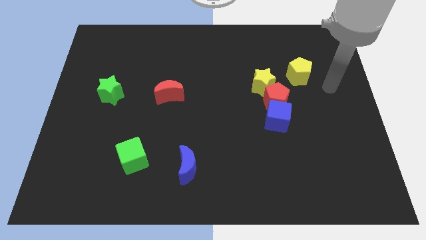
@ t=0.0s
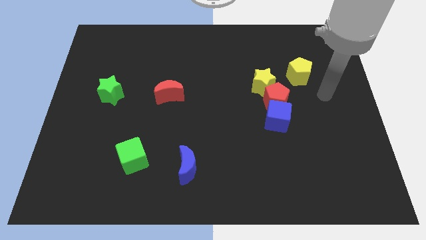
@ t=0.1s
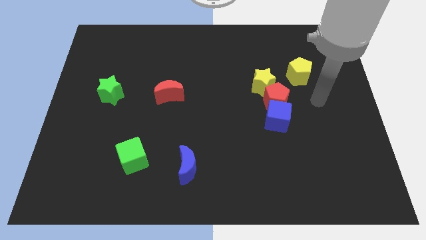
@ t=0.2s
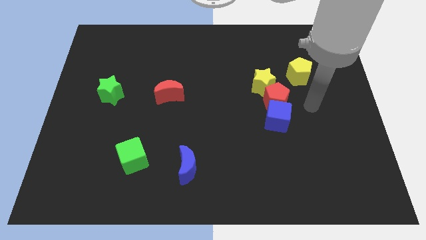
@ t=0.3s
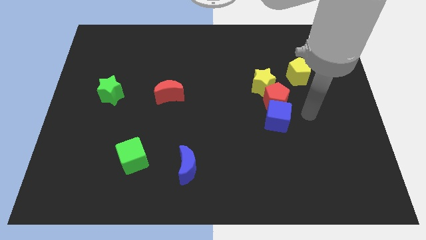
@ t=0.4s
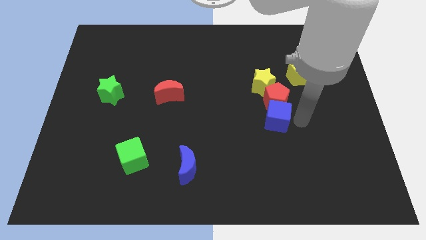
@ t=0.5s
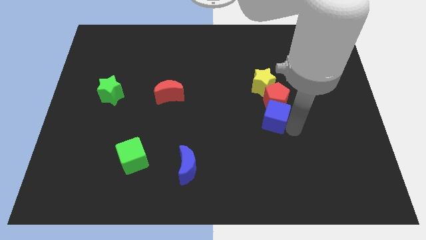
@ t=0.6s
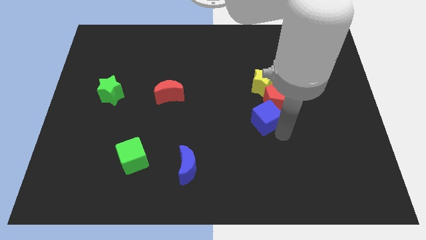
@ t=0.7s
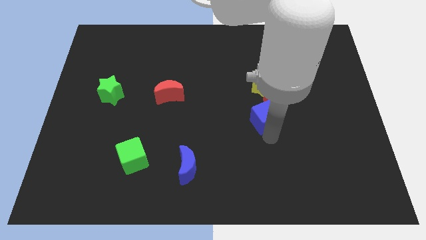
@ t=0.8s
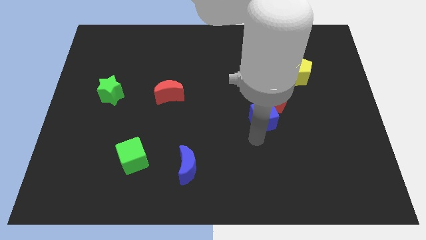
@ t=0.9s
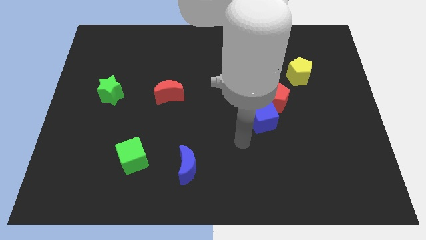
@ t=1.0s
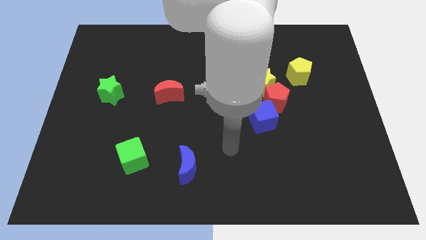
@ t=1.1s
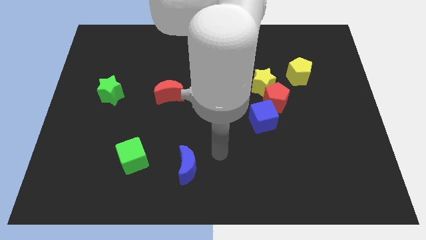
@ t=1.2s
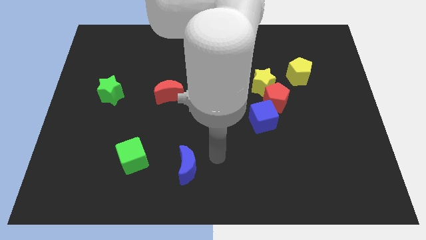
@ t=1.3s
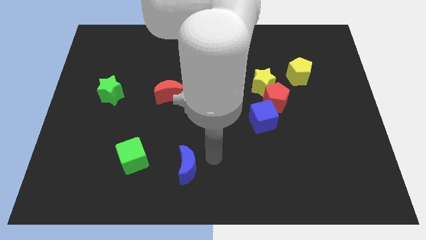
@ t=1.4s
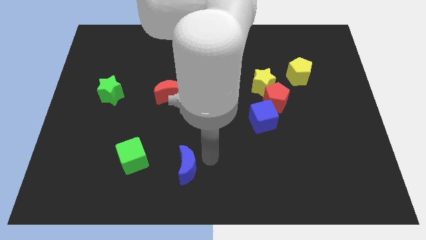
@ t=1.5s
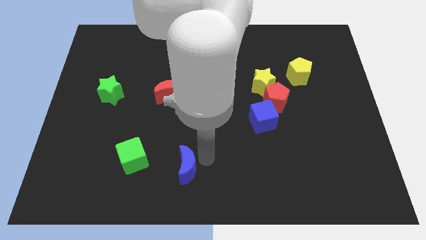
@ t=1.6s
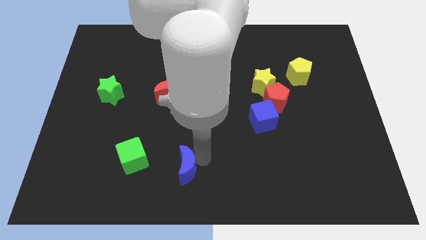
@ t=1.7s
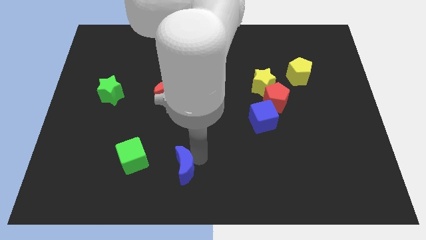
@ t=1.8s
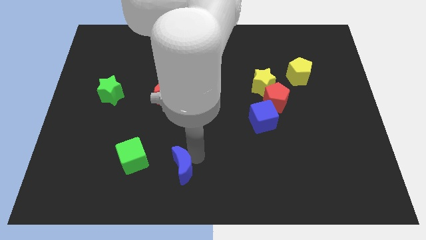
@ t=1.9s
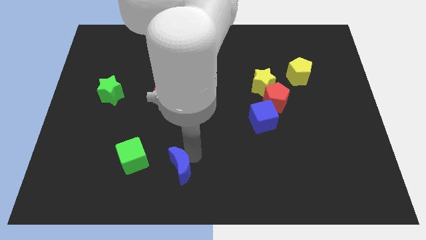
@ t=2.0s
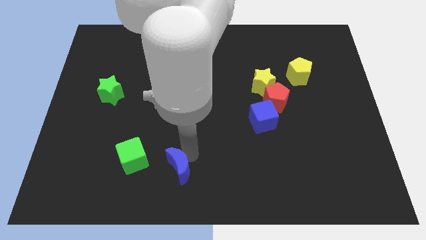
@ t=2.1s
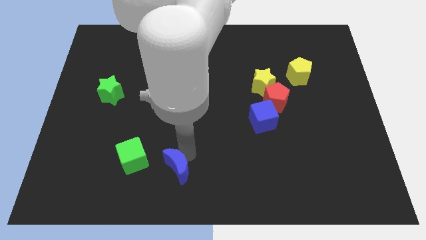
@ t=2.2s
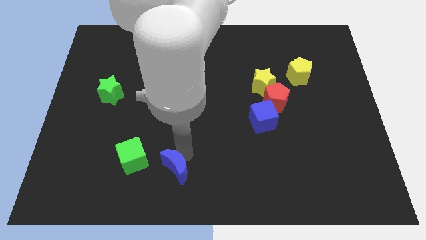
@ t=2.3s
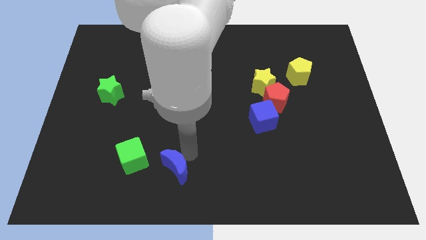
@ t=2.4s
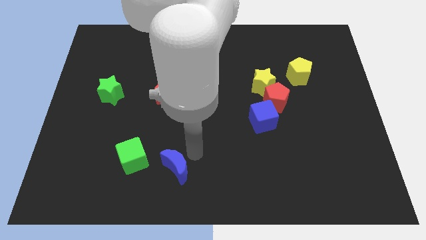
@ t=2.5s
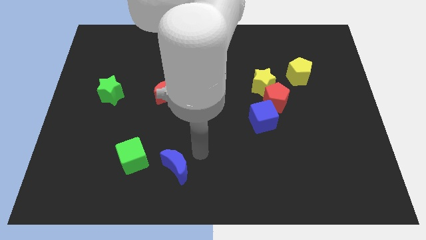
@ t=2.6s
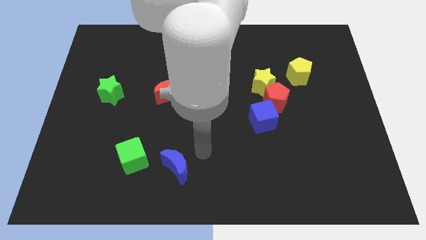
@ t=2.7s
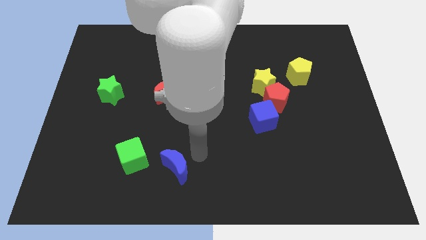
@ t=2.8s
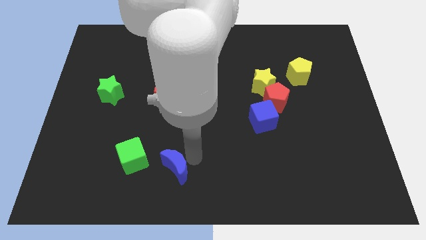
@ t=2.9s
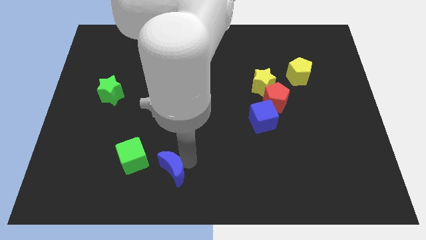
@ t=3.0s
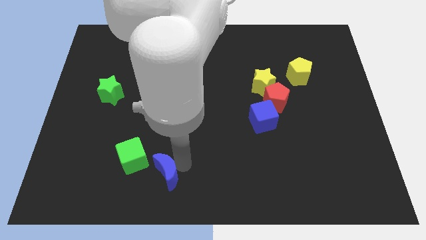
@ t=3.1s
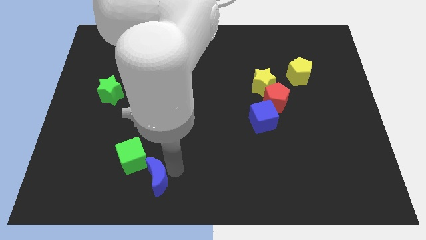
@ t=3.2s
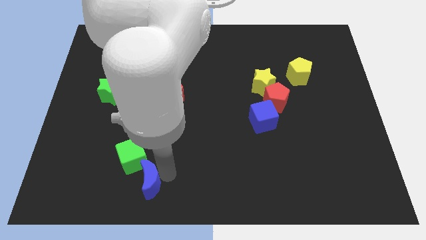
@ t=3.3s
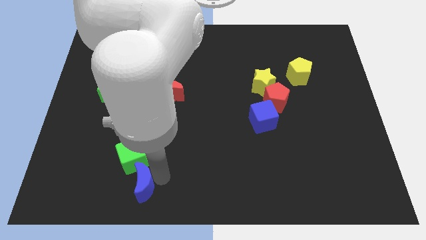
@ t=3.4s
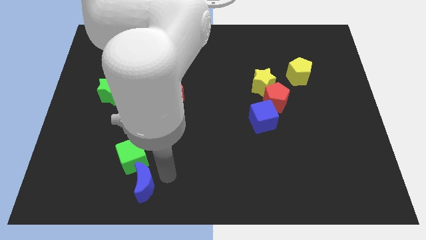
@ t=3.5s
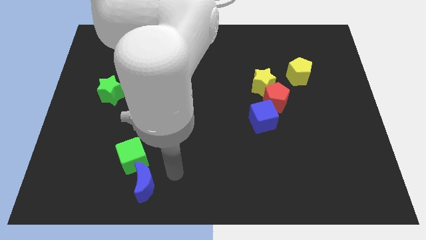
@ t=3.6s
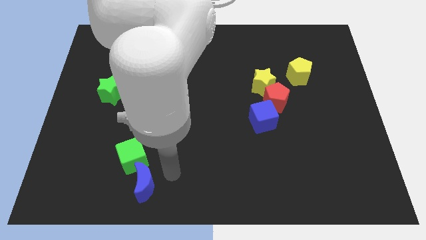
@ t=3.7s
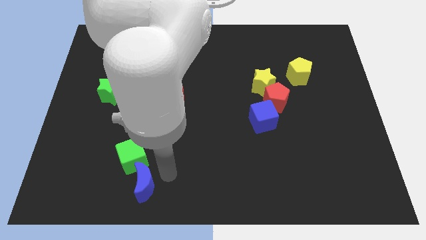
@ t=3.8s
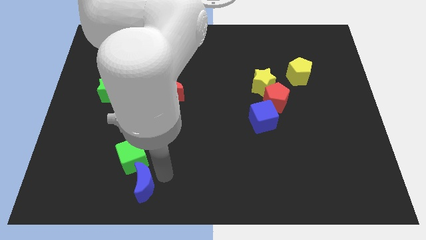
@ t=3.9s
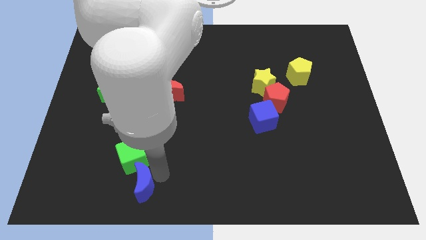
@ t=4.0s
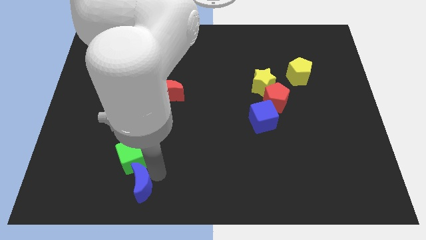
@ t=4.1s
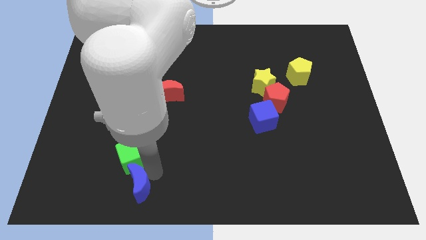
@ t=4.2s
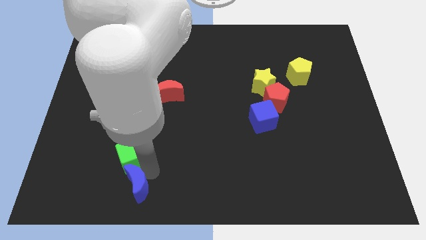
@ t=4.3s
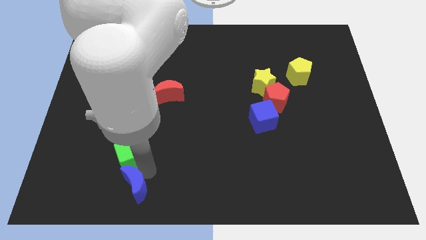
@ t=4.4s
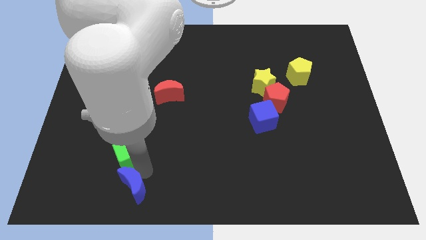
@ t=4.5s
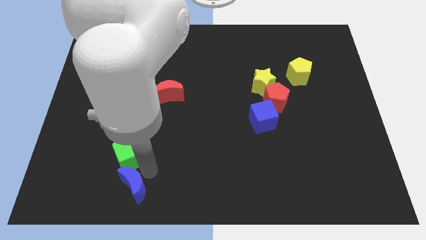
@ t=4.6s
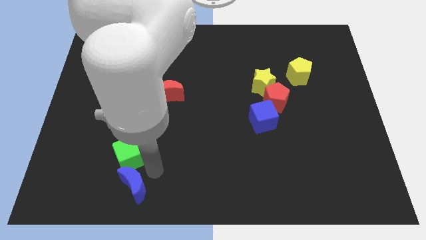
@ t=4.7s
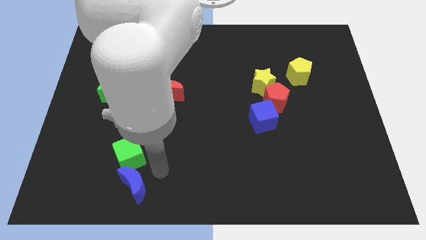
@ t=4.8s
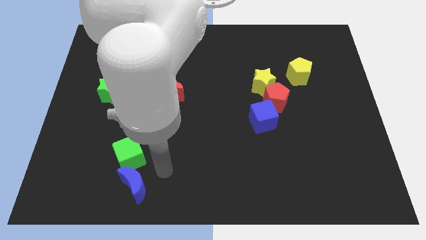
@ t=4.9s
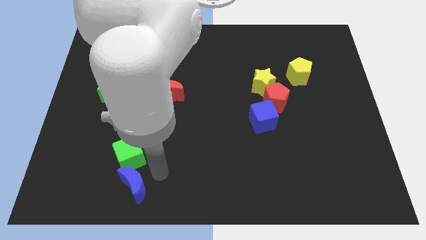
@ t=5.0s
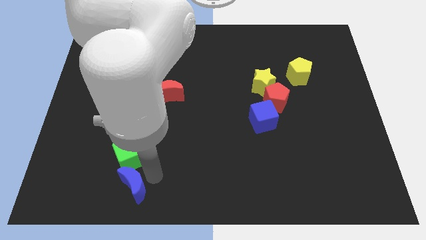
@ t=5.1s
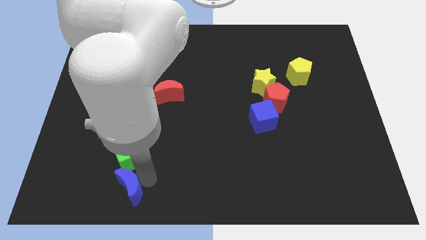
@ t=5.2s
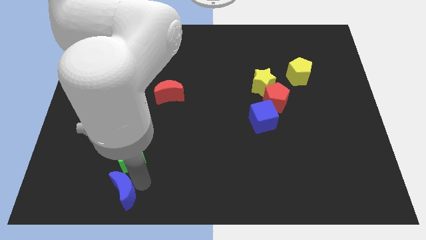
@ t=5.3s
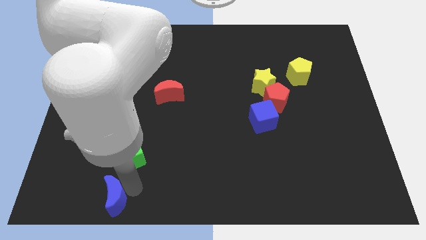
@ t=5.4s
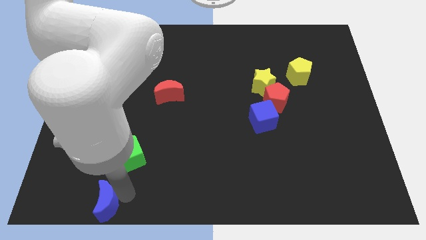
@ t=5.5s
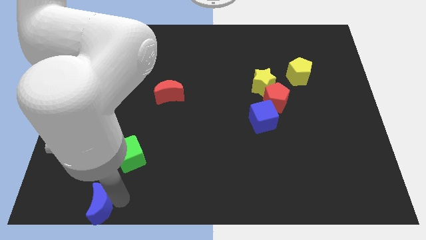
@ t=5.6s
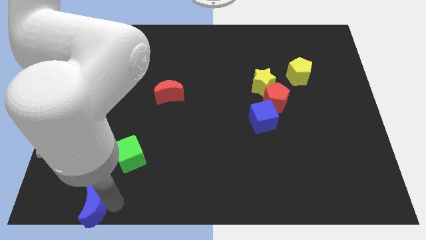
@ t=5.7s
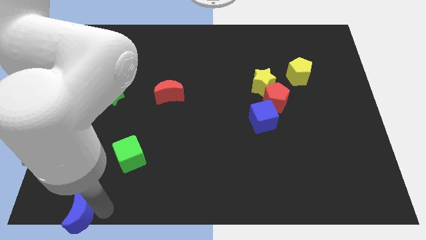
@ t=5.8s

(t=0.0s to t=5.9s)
push the blue moon to the lower left corner
